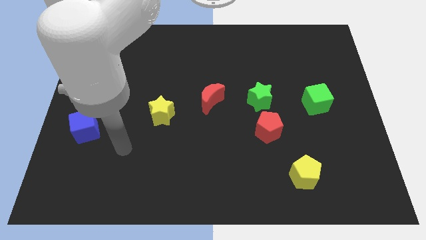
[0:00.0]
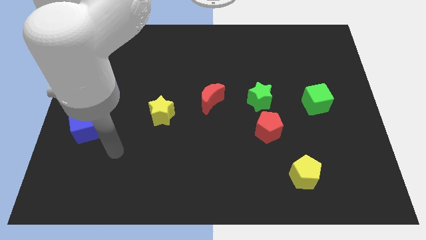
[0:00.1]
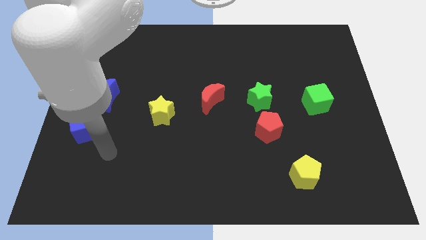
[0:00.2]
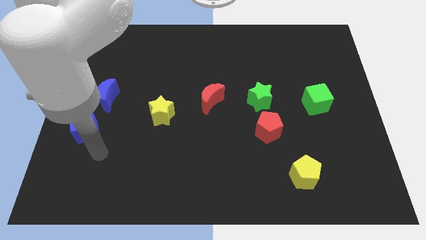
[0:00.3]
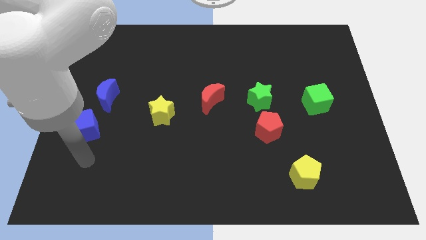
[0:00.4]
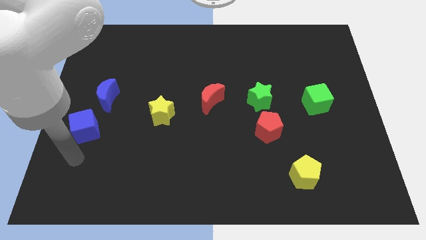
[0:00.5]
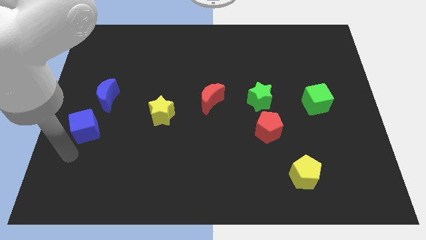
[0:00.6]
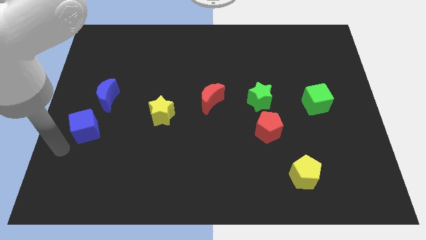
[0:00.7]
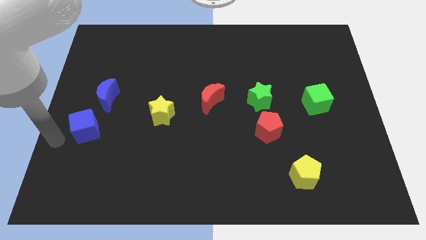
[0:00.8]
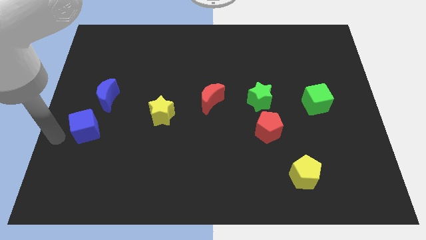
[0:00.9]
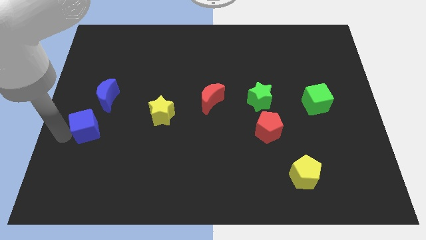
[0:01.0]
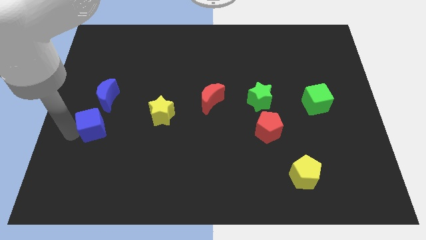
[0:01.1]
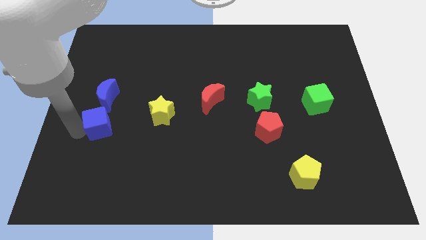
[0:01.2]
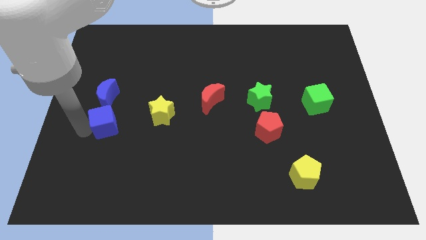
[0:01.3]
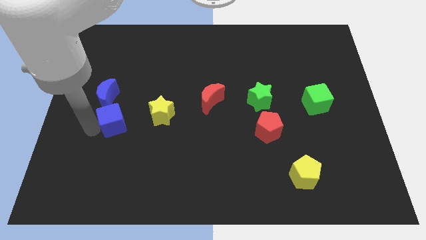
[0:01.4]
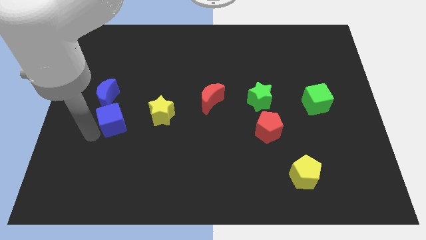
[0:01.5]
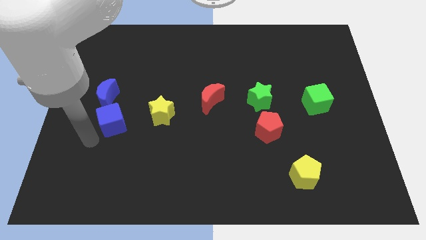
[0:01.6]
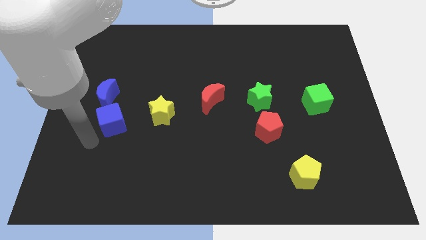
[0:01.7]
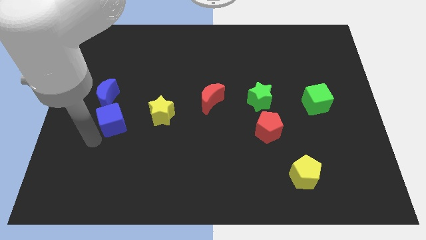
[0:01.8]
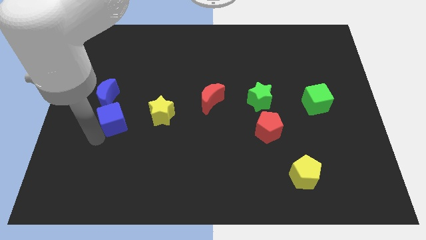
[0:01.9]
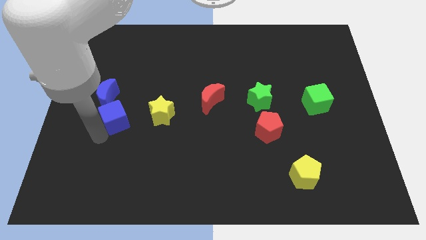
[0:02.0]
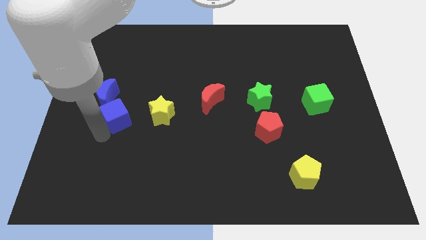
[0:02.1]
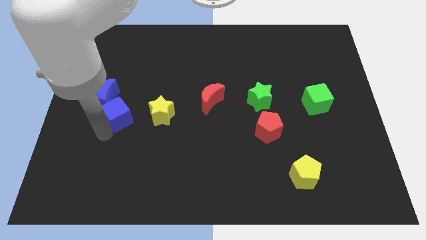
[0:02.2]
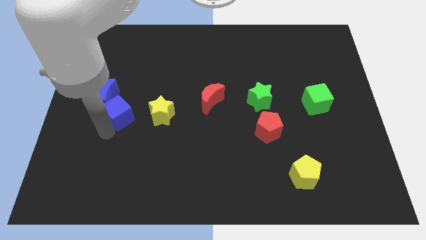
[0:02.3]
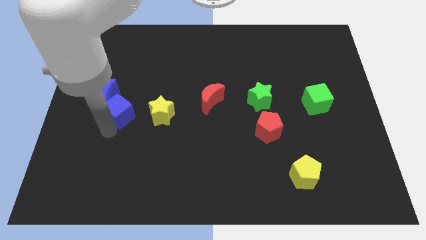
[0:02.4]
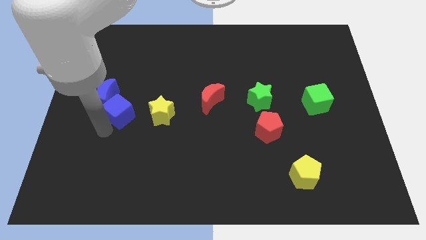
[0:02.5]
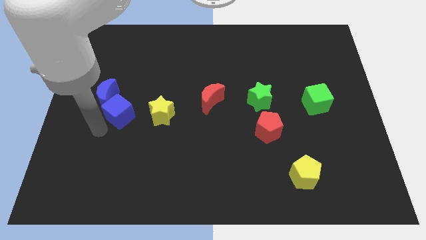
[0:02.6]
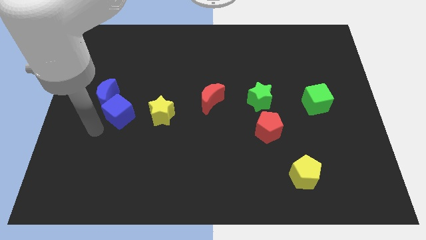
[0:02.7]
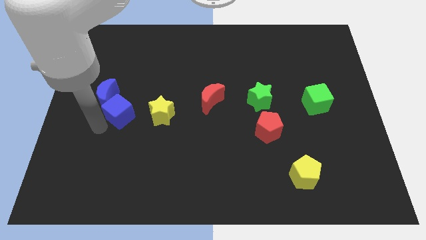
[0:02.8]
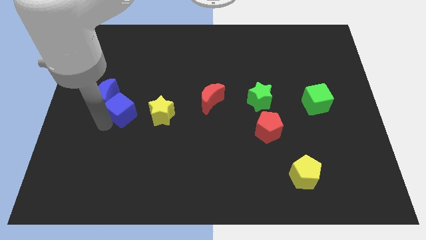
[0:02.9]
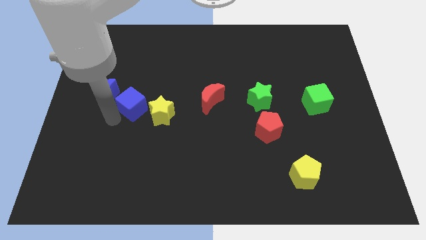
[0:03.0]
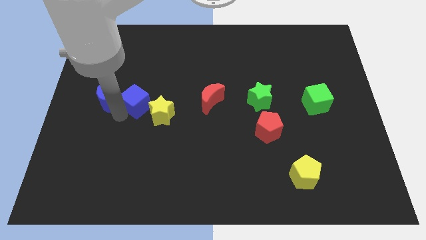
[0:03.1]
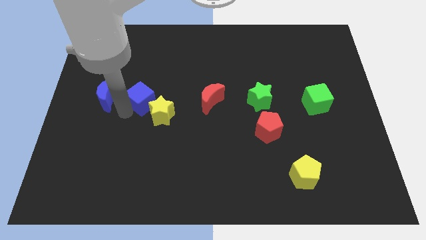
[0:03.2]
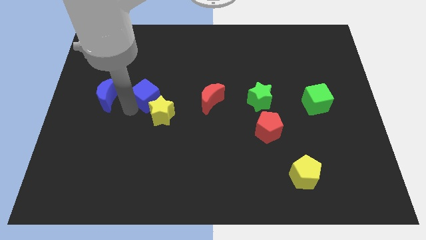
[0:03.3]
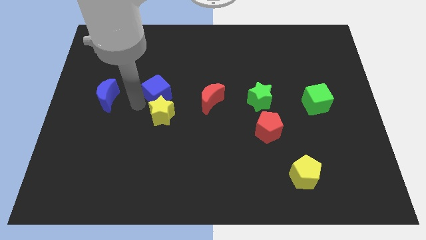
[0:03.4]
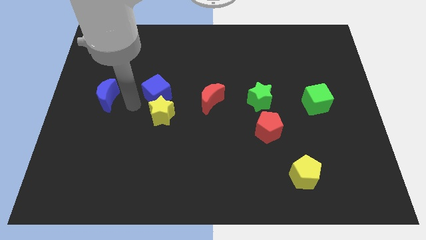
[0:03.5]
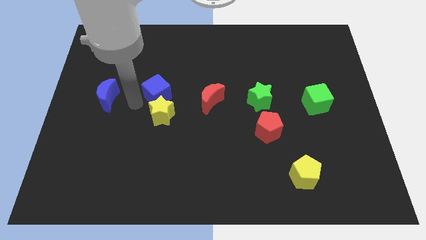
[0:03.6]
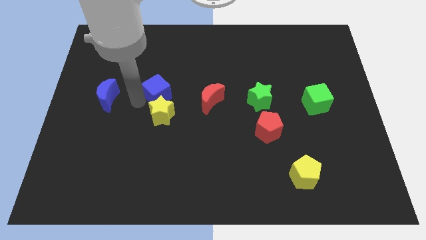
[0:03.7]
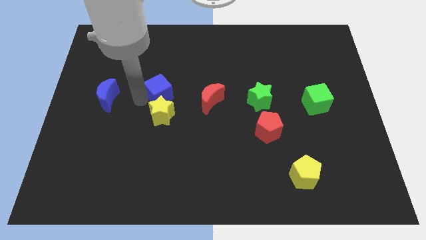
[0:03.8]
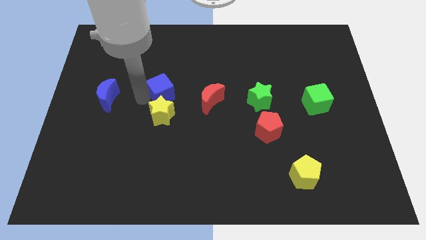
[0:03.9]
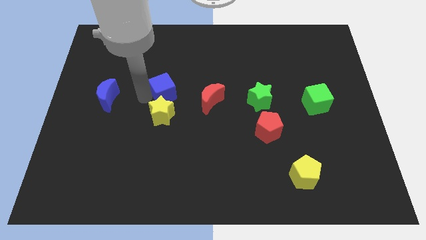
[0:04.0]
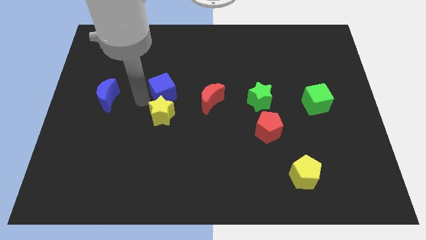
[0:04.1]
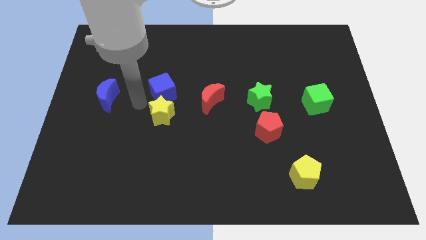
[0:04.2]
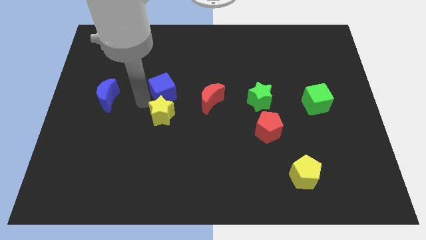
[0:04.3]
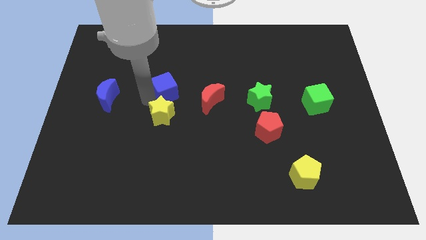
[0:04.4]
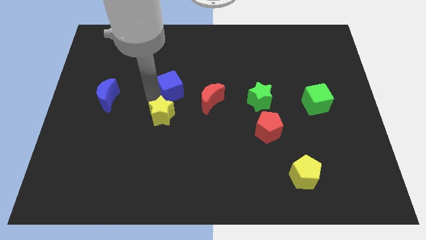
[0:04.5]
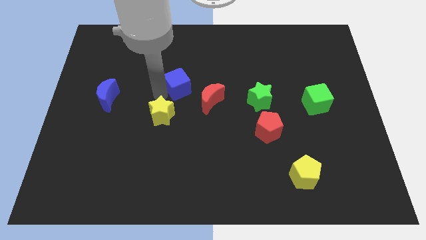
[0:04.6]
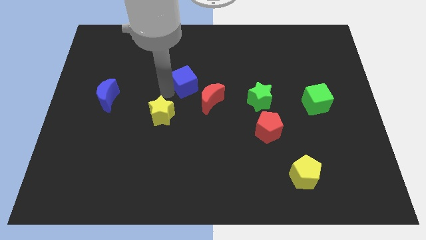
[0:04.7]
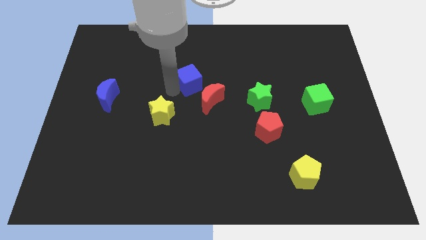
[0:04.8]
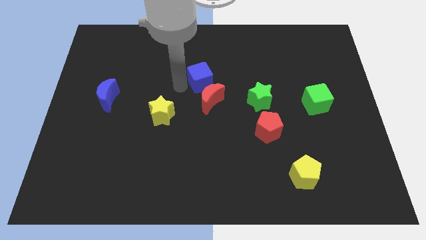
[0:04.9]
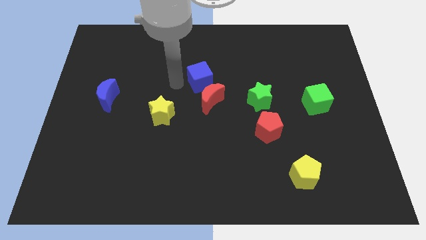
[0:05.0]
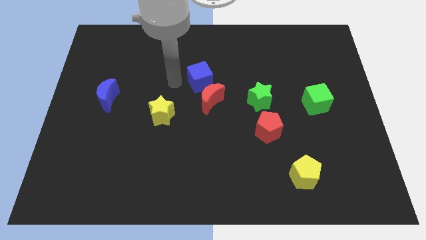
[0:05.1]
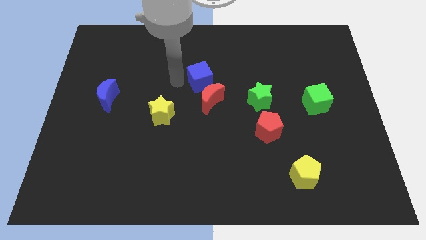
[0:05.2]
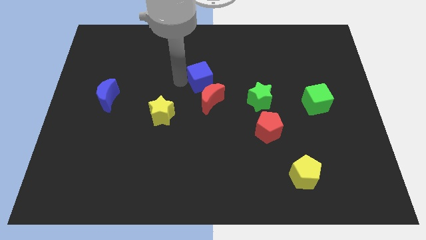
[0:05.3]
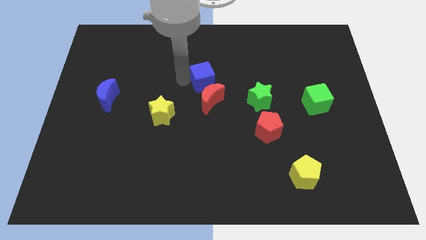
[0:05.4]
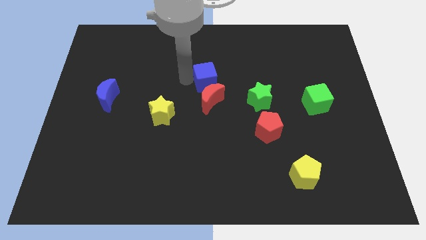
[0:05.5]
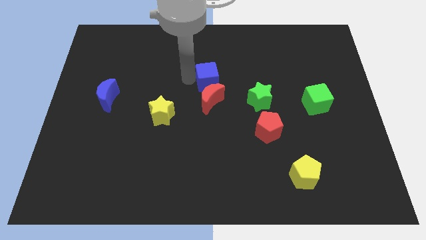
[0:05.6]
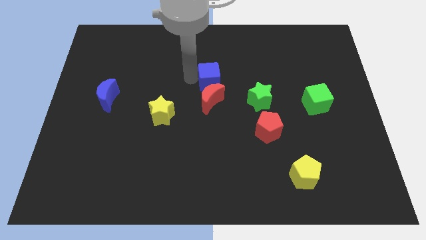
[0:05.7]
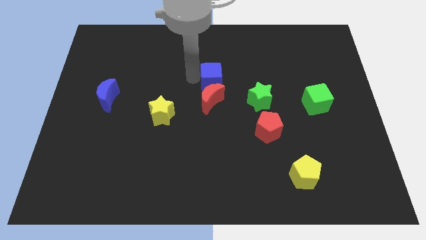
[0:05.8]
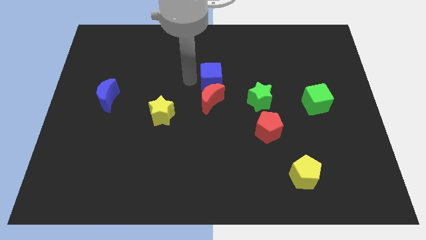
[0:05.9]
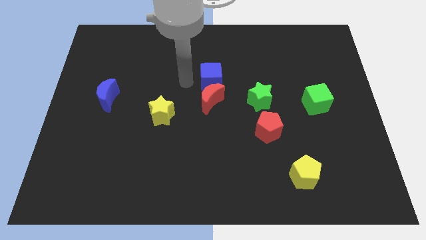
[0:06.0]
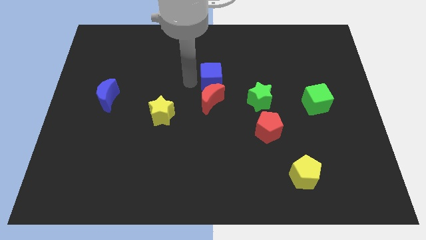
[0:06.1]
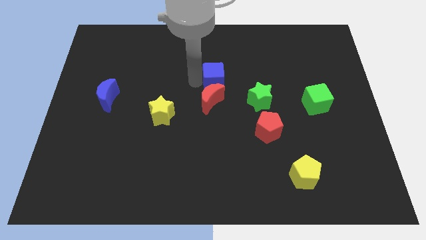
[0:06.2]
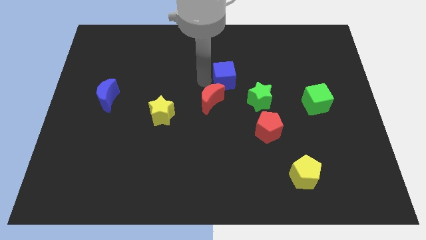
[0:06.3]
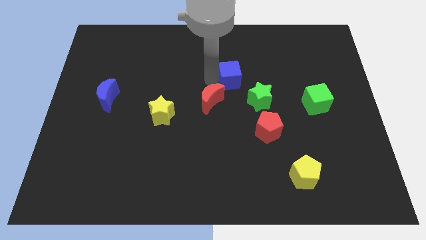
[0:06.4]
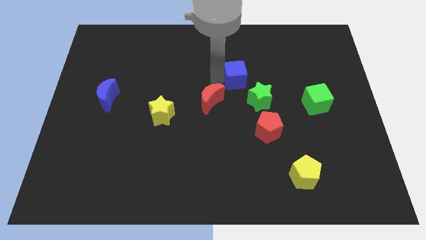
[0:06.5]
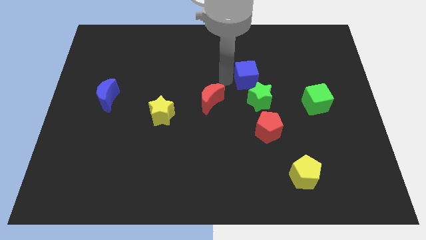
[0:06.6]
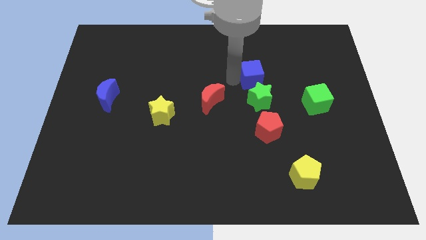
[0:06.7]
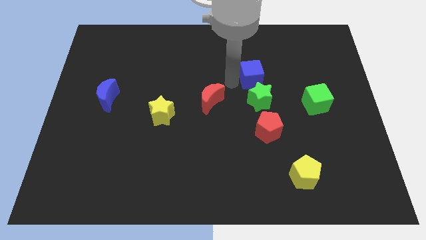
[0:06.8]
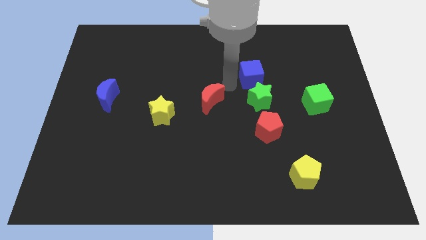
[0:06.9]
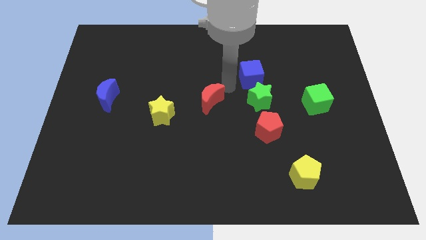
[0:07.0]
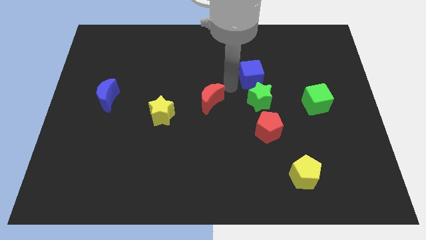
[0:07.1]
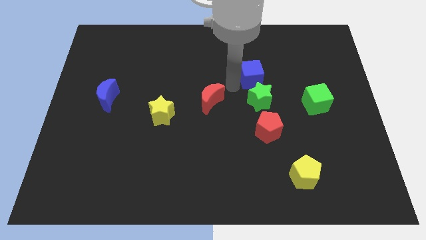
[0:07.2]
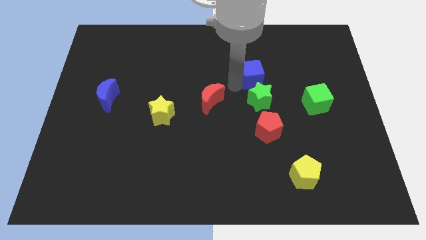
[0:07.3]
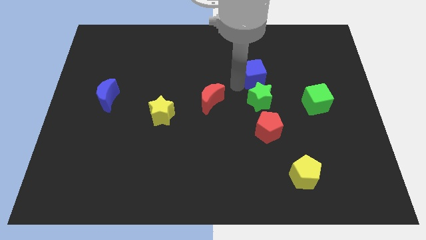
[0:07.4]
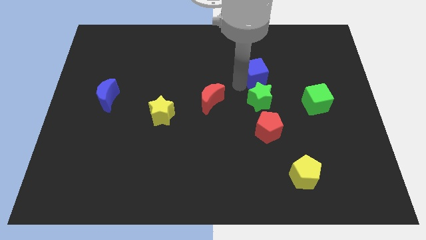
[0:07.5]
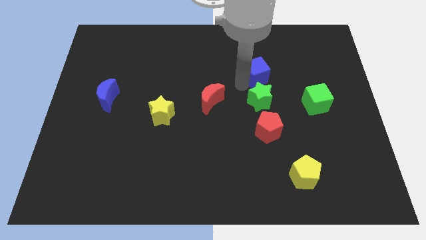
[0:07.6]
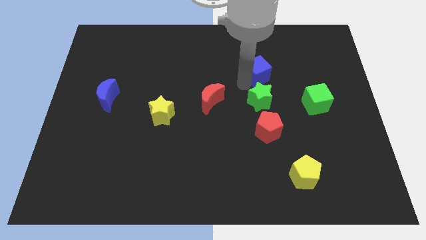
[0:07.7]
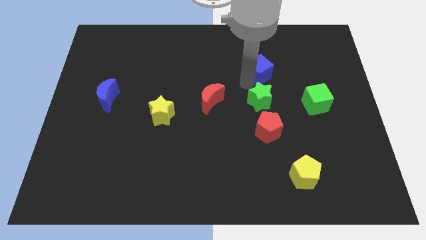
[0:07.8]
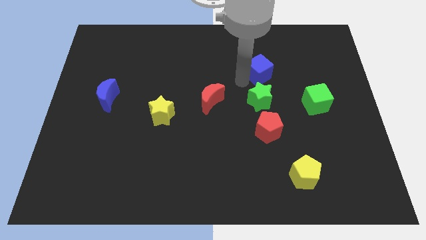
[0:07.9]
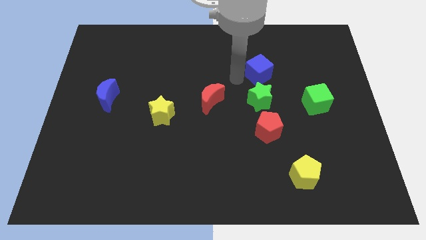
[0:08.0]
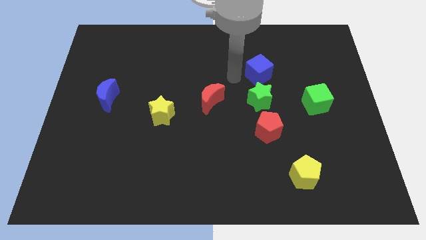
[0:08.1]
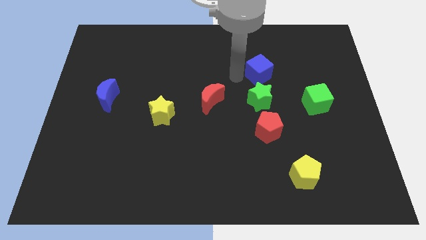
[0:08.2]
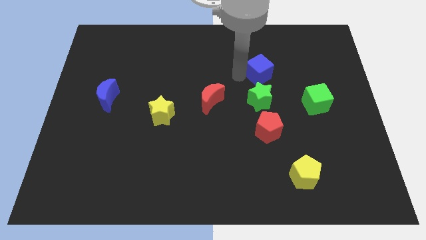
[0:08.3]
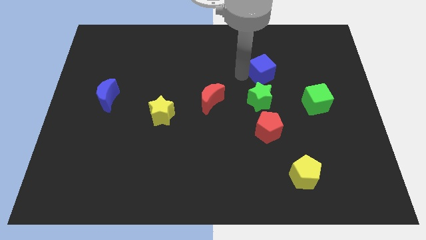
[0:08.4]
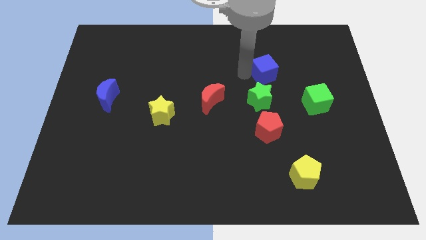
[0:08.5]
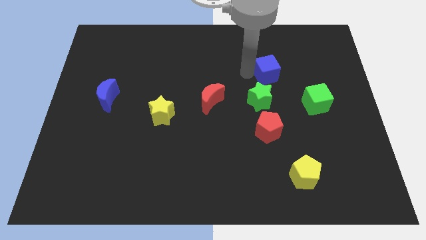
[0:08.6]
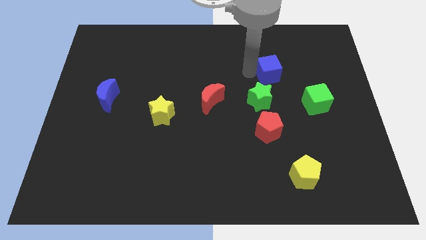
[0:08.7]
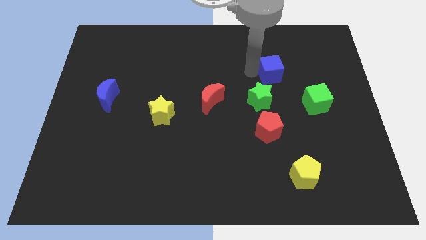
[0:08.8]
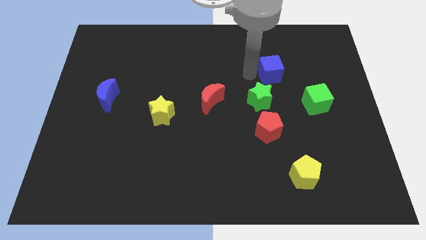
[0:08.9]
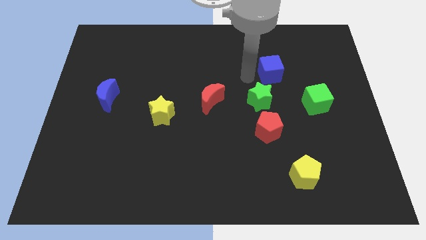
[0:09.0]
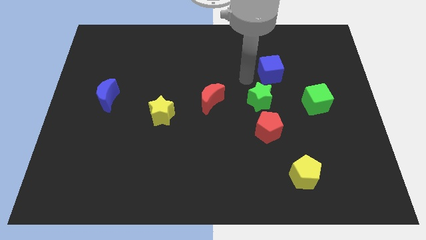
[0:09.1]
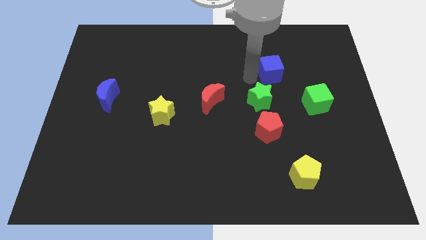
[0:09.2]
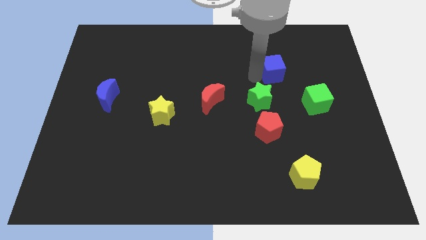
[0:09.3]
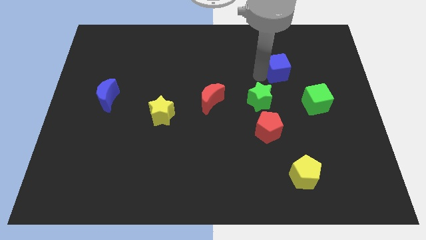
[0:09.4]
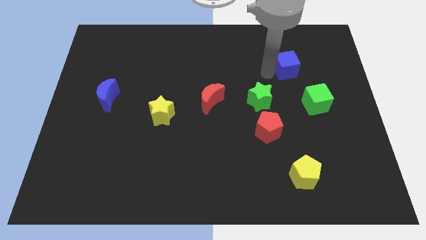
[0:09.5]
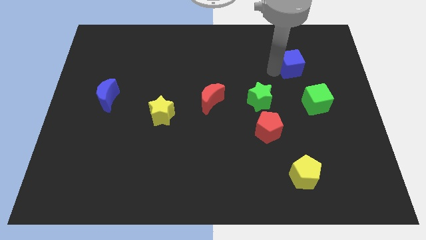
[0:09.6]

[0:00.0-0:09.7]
slide the blue cube to the top side of the green cube
